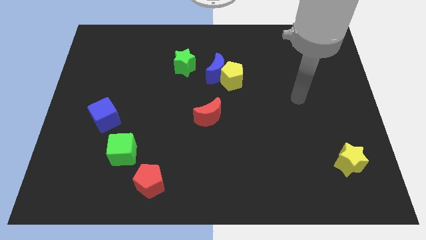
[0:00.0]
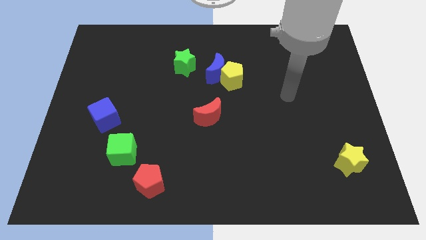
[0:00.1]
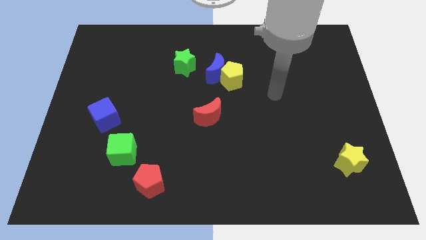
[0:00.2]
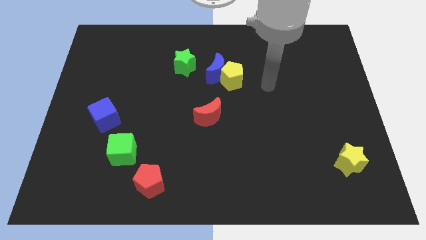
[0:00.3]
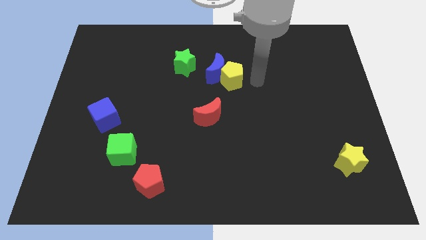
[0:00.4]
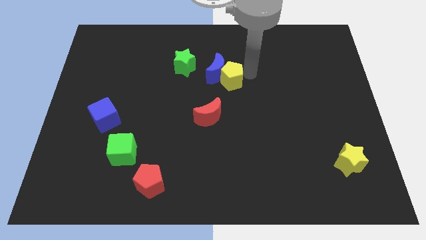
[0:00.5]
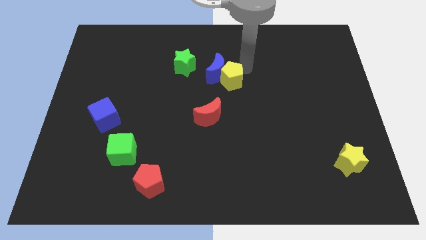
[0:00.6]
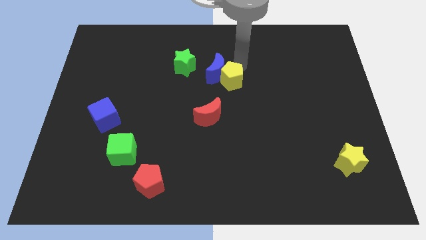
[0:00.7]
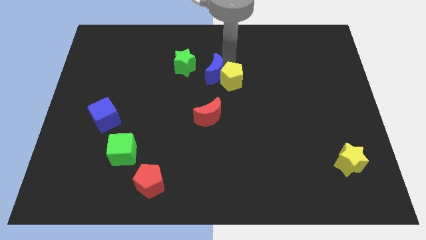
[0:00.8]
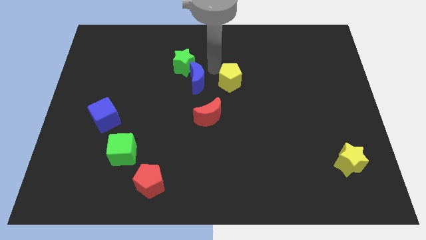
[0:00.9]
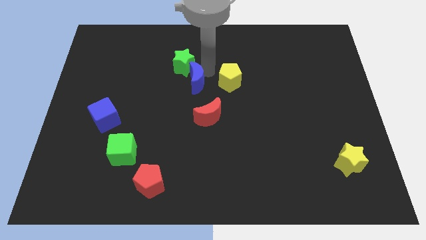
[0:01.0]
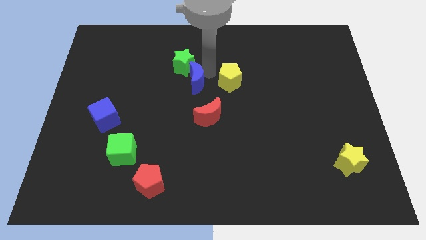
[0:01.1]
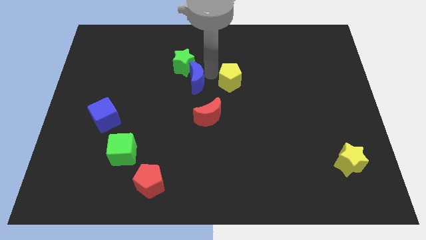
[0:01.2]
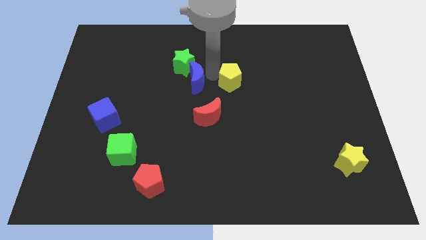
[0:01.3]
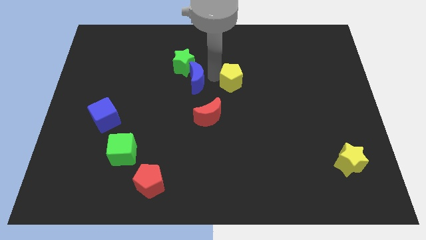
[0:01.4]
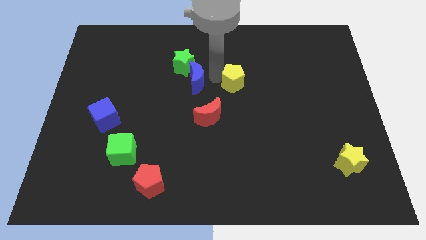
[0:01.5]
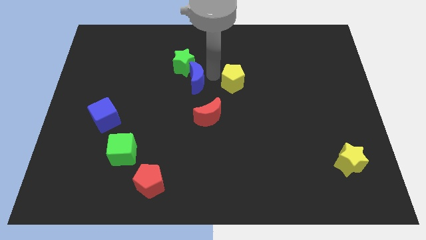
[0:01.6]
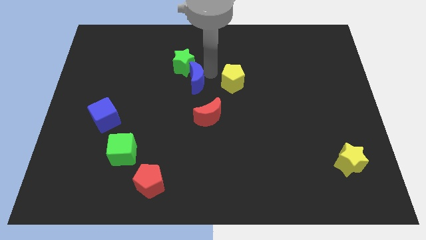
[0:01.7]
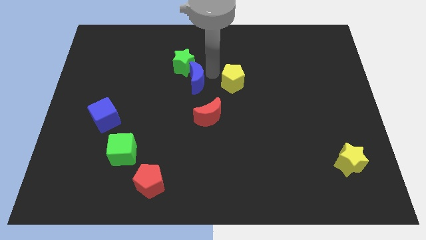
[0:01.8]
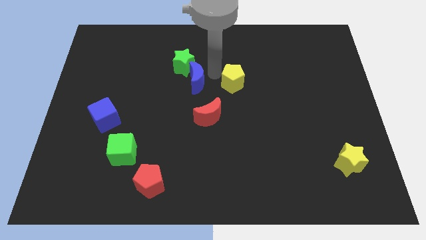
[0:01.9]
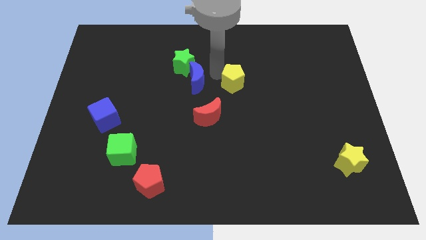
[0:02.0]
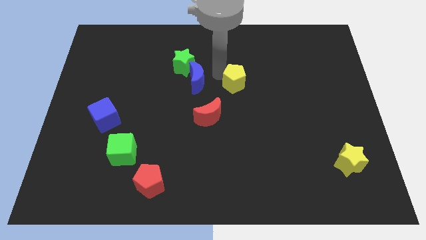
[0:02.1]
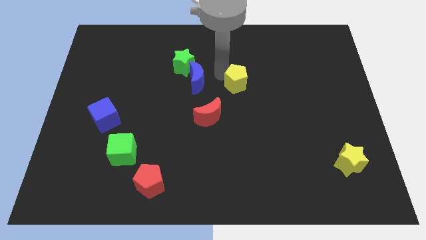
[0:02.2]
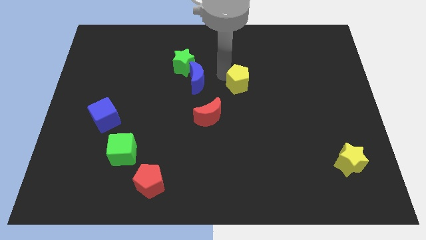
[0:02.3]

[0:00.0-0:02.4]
pull the yellow pentagon apart from the blue moon

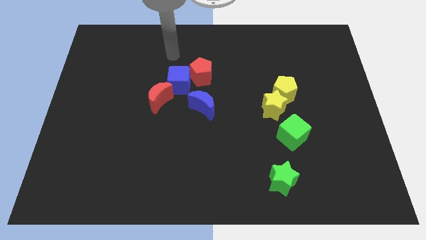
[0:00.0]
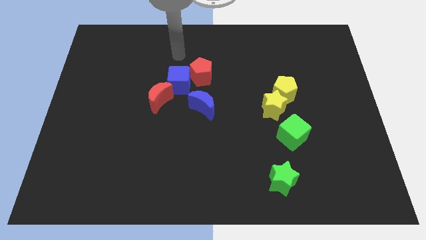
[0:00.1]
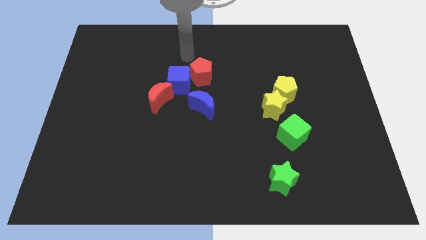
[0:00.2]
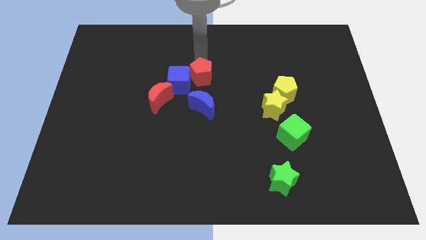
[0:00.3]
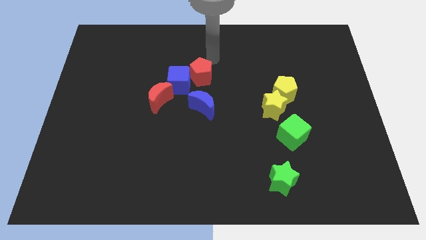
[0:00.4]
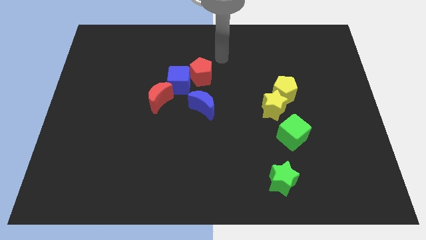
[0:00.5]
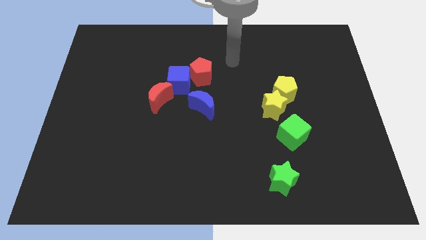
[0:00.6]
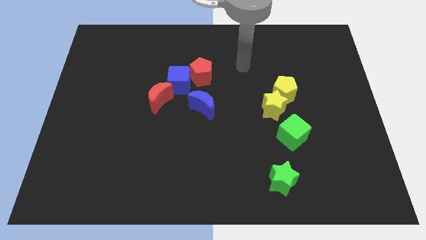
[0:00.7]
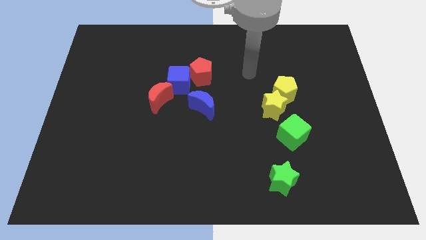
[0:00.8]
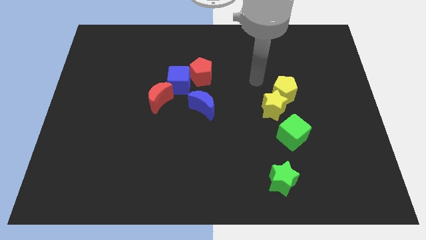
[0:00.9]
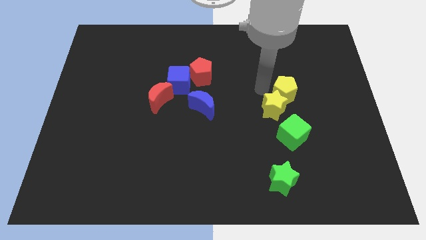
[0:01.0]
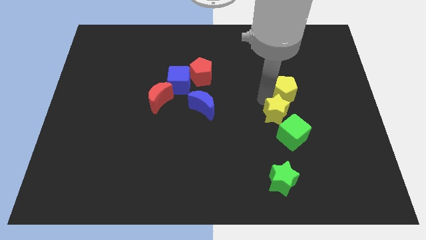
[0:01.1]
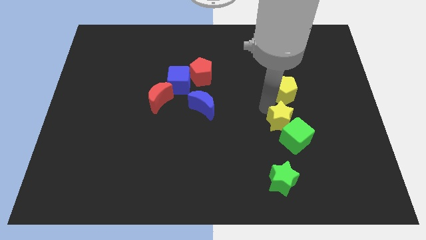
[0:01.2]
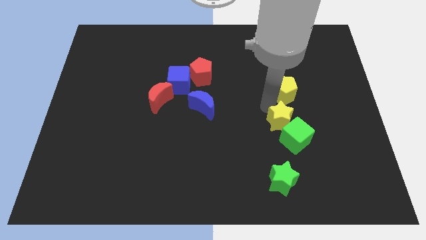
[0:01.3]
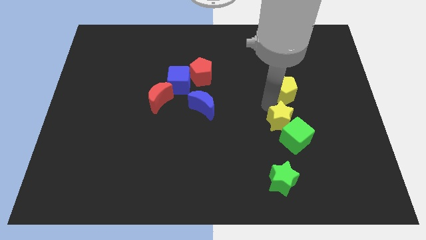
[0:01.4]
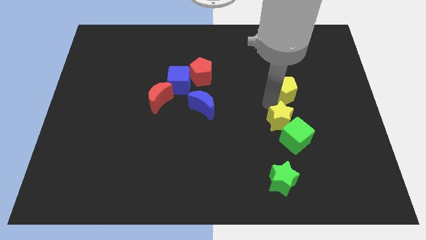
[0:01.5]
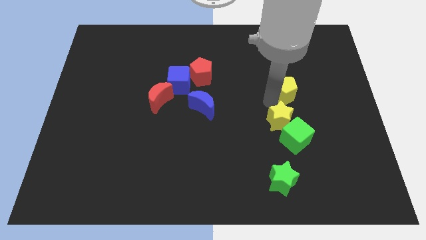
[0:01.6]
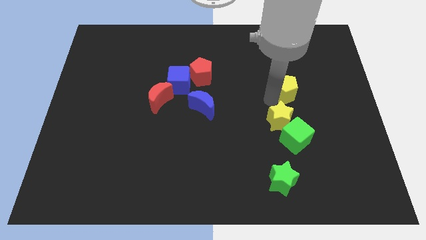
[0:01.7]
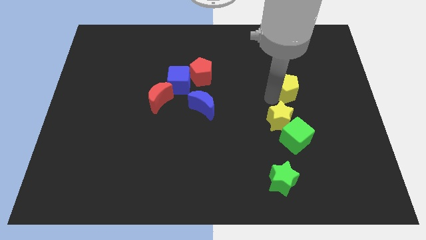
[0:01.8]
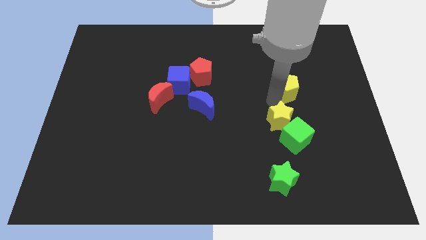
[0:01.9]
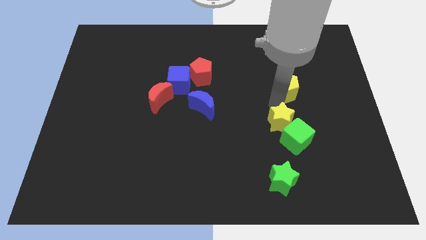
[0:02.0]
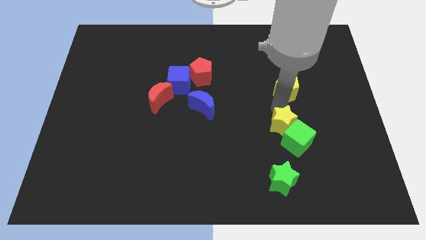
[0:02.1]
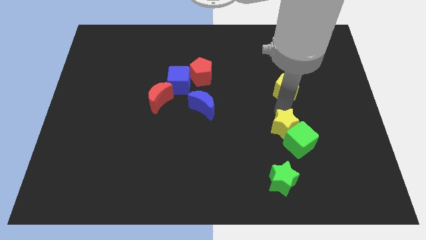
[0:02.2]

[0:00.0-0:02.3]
move the yellow pentagon away from the yellow star

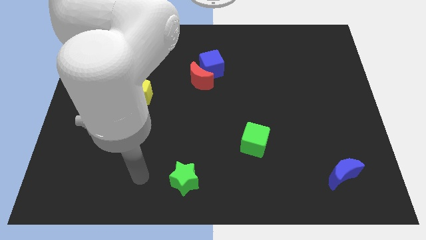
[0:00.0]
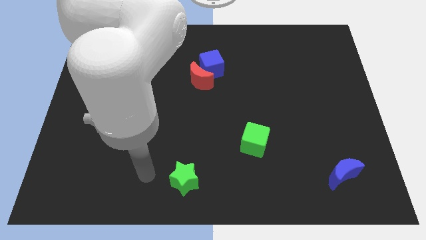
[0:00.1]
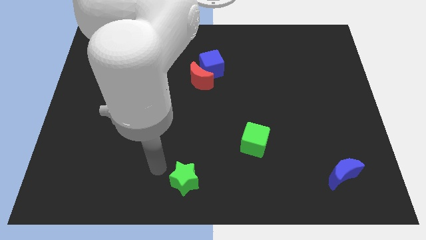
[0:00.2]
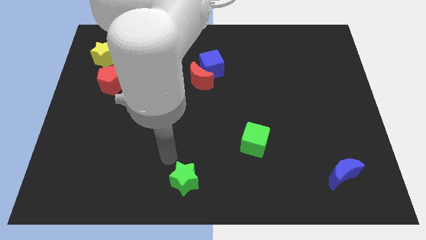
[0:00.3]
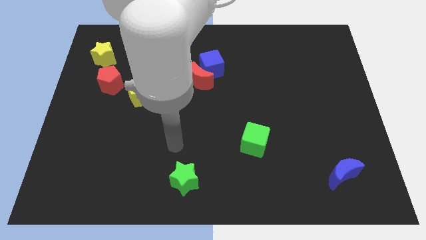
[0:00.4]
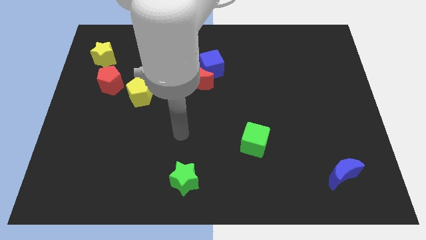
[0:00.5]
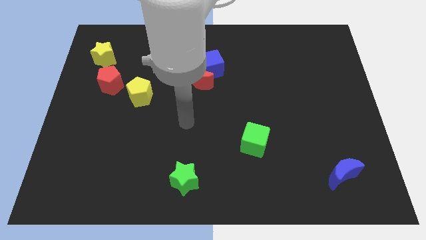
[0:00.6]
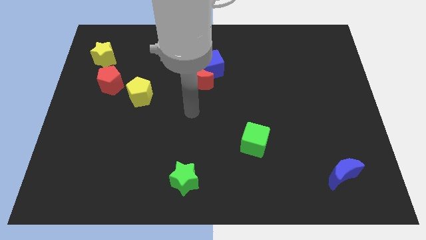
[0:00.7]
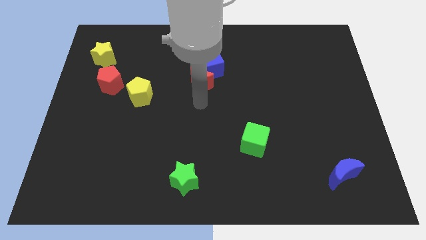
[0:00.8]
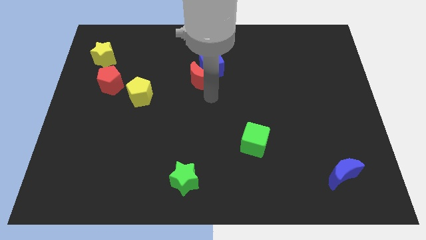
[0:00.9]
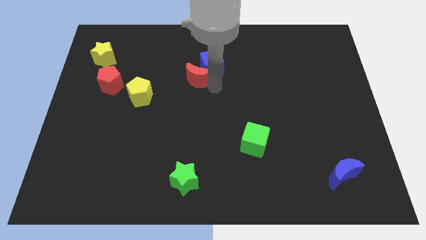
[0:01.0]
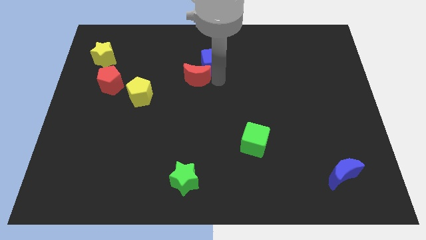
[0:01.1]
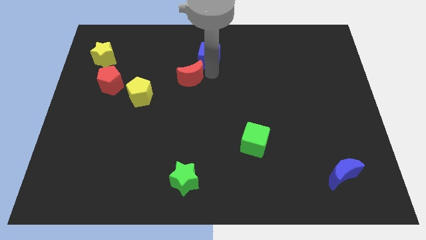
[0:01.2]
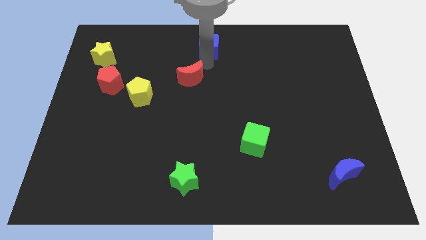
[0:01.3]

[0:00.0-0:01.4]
pull the red moon apart from the blue cube

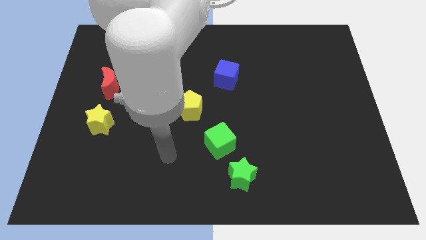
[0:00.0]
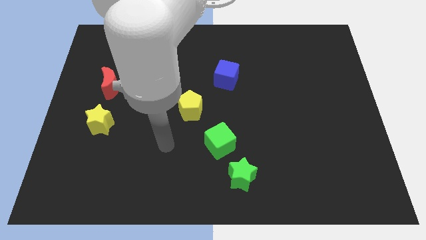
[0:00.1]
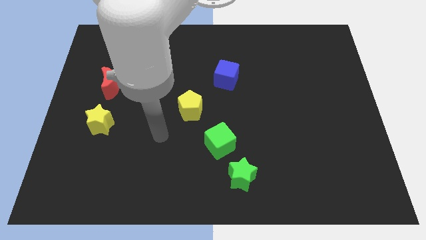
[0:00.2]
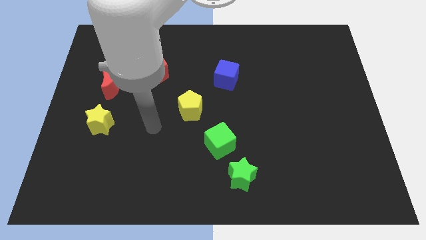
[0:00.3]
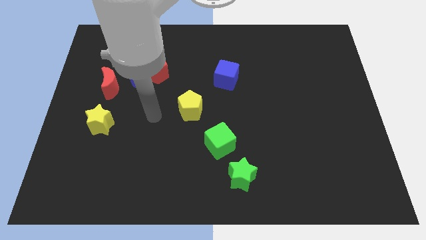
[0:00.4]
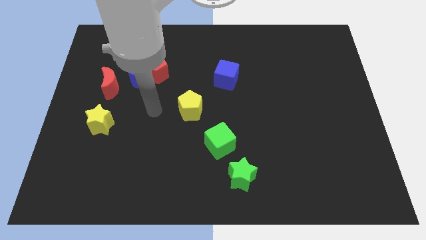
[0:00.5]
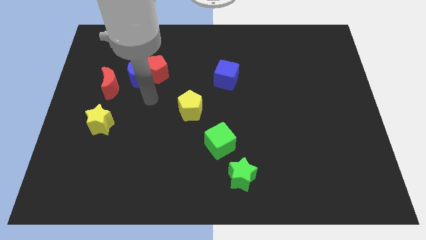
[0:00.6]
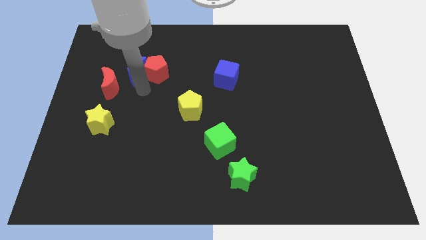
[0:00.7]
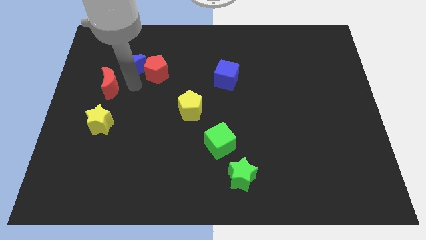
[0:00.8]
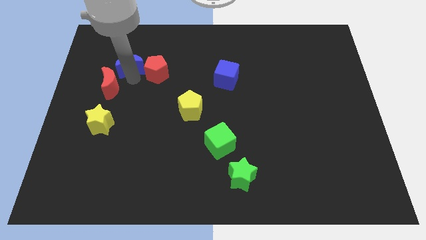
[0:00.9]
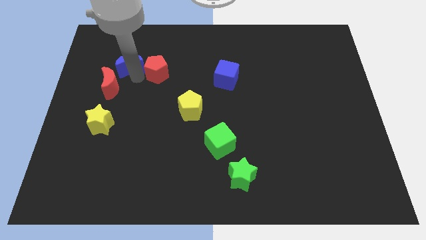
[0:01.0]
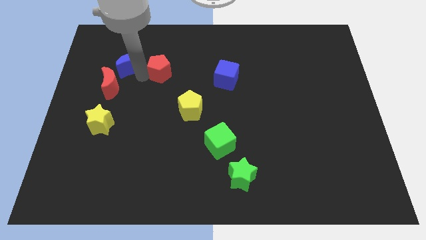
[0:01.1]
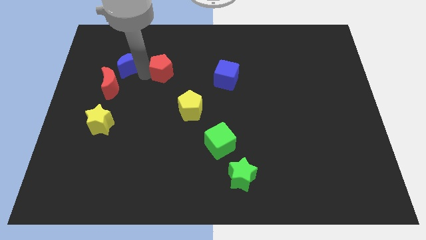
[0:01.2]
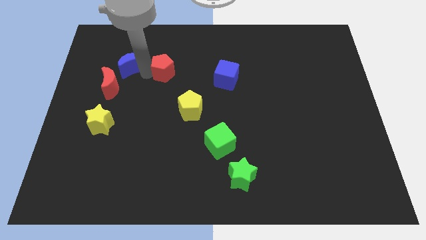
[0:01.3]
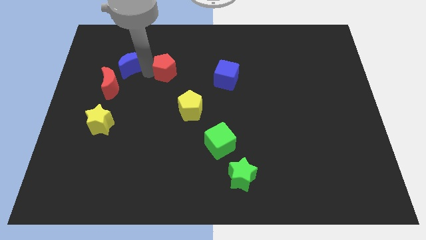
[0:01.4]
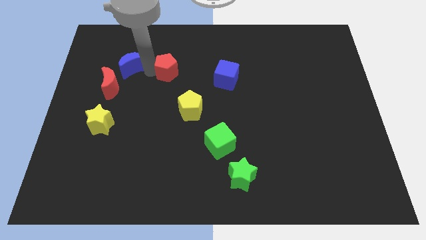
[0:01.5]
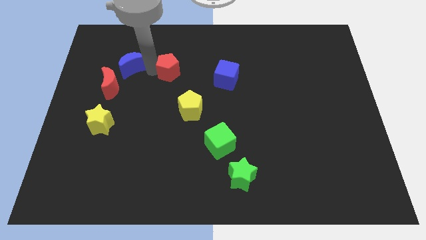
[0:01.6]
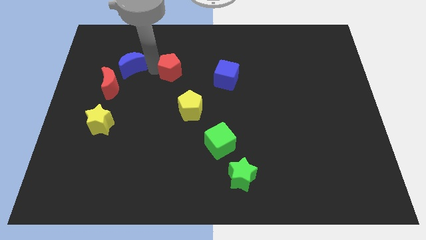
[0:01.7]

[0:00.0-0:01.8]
move the red pentagon away from the blue moon

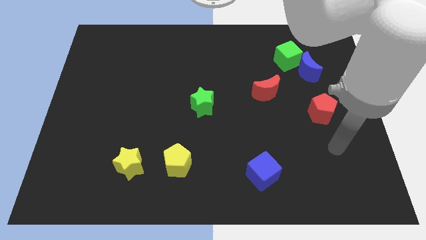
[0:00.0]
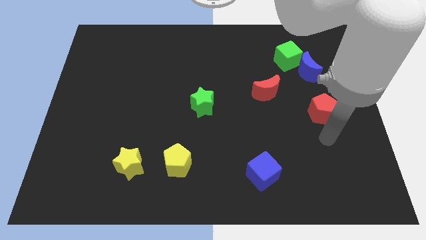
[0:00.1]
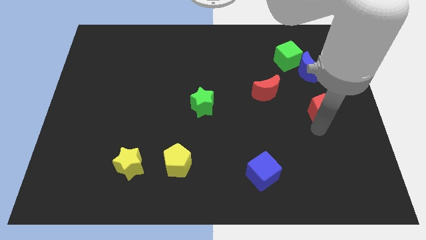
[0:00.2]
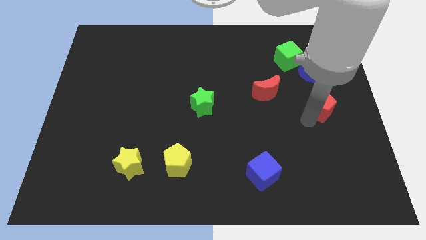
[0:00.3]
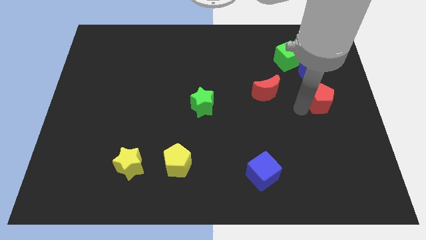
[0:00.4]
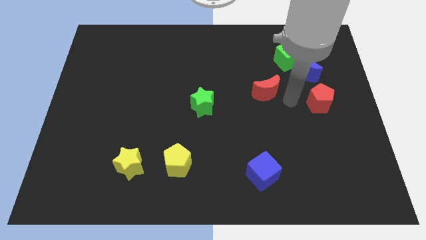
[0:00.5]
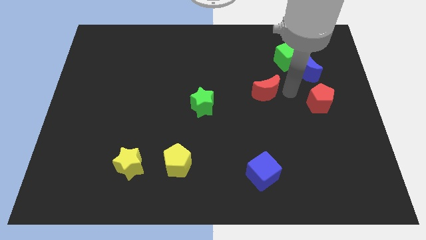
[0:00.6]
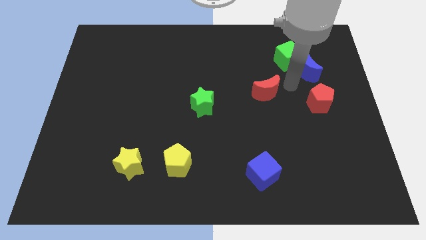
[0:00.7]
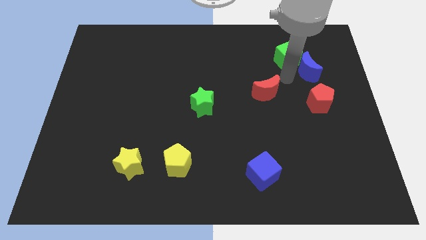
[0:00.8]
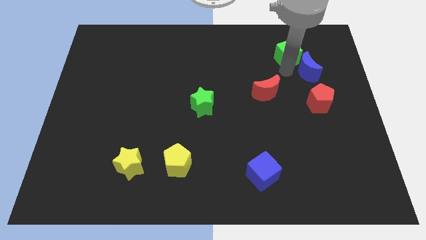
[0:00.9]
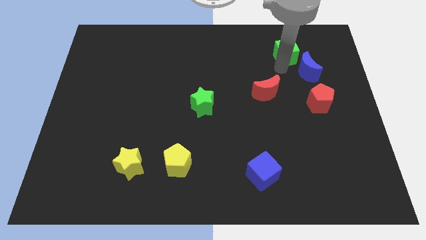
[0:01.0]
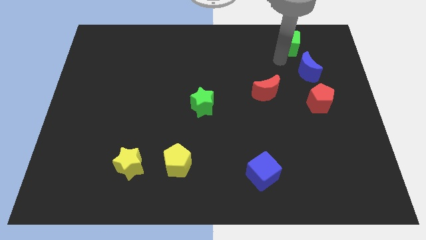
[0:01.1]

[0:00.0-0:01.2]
pull the blue moon apart from the green cube

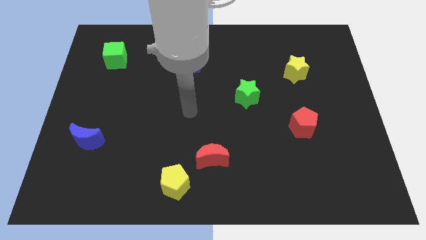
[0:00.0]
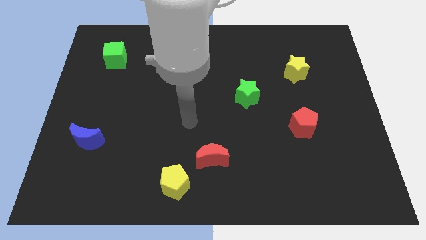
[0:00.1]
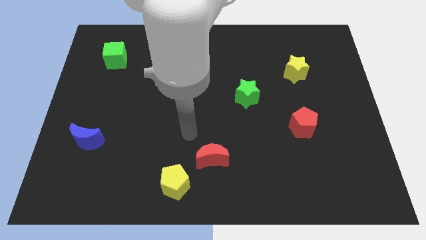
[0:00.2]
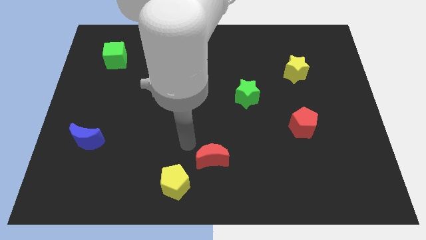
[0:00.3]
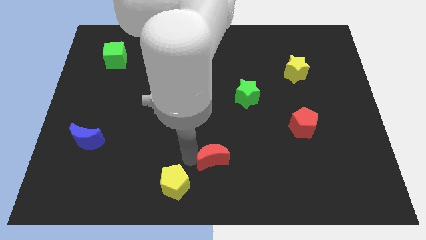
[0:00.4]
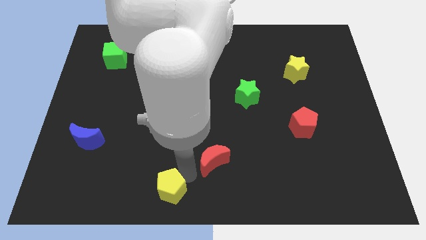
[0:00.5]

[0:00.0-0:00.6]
move the red moon away from the yellow pentagon
